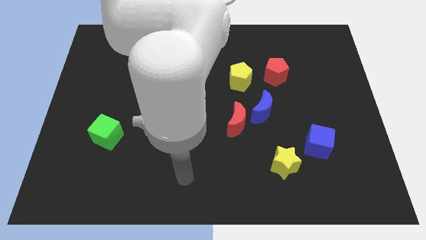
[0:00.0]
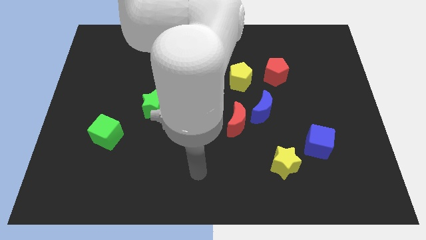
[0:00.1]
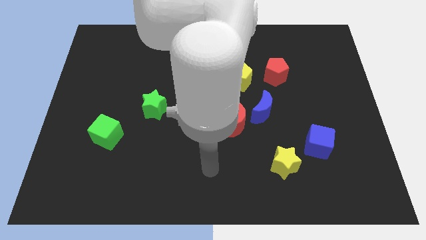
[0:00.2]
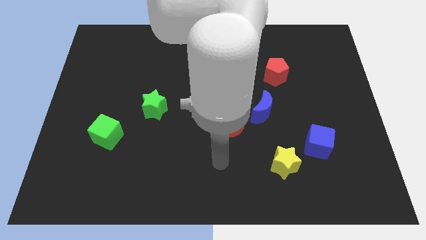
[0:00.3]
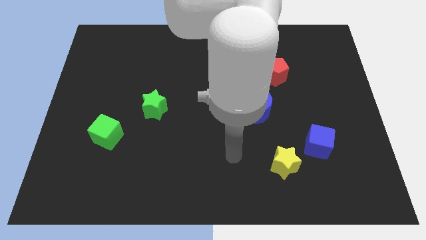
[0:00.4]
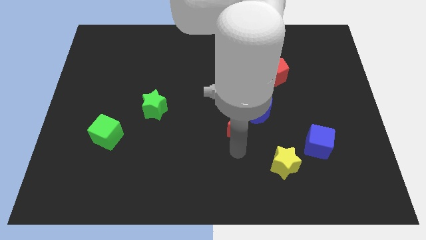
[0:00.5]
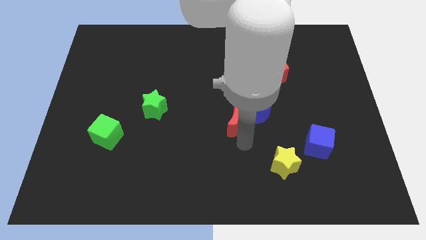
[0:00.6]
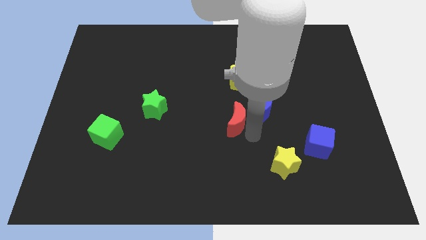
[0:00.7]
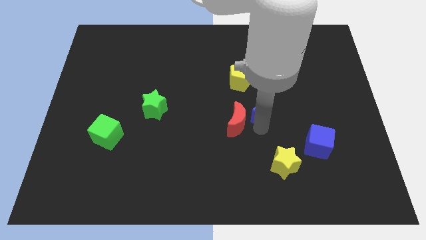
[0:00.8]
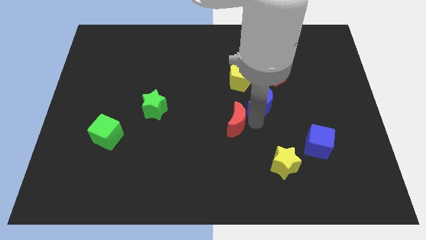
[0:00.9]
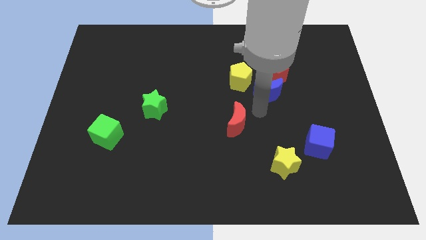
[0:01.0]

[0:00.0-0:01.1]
pull the red moon apart from the blue moon

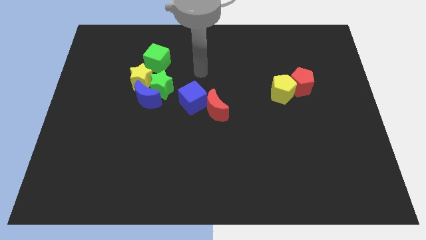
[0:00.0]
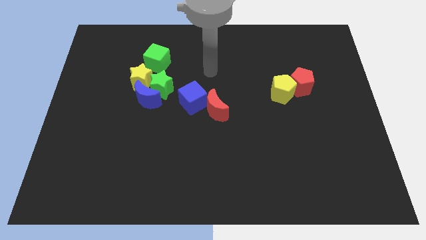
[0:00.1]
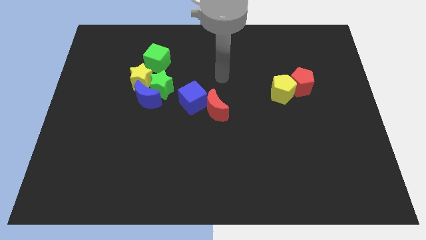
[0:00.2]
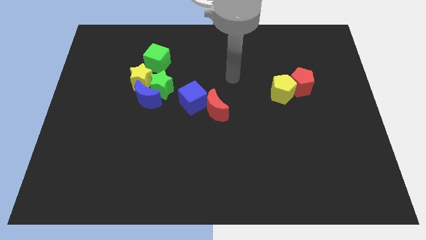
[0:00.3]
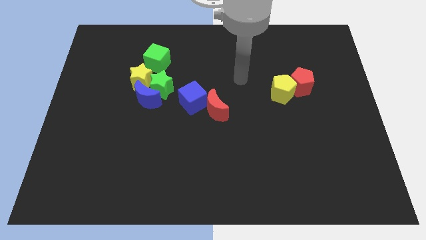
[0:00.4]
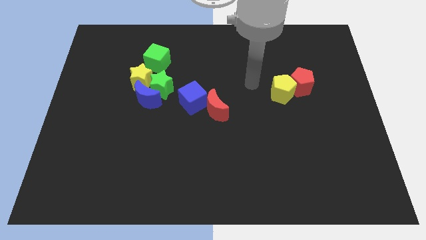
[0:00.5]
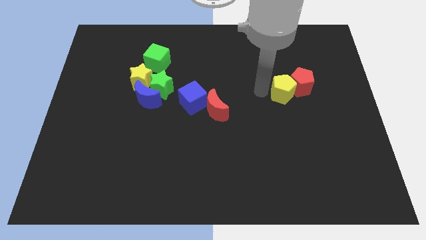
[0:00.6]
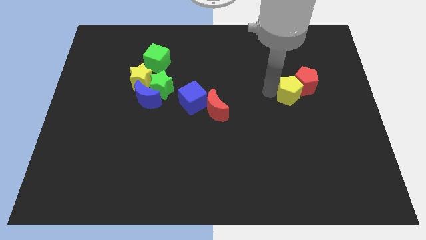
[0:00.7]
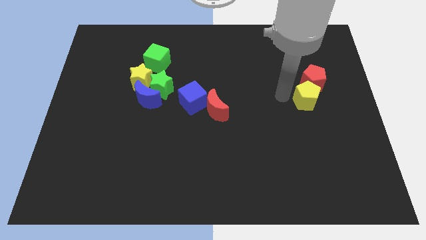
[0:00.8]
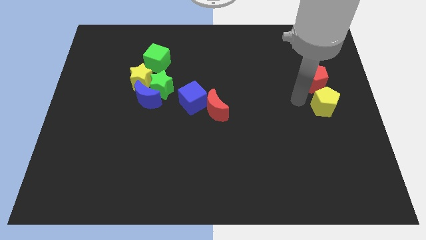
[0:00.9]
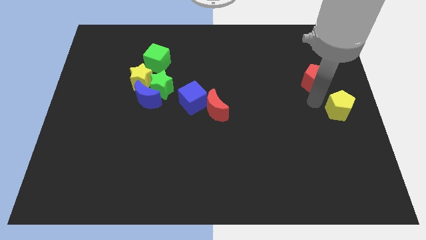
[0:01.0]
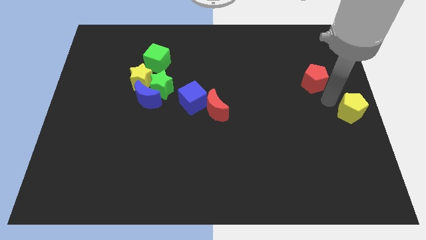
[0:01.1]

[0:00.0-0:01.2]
move the red pentagon away from the yellow pentagon

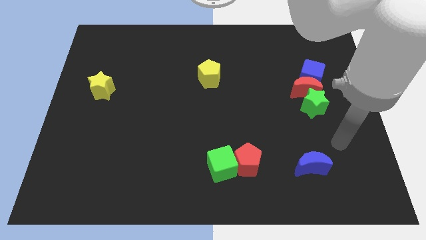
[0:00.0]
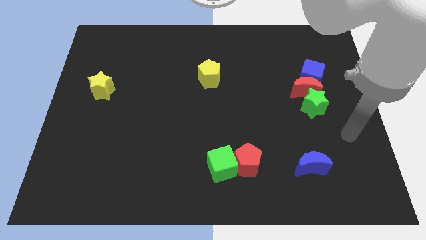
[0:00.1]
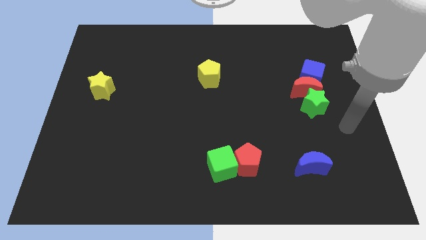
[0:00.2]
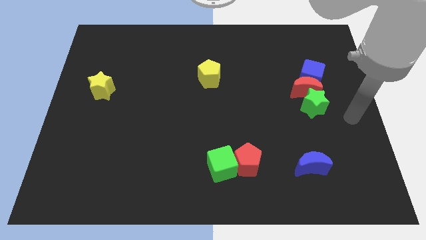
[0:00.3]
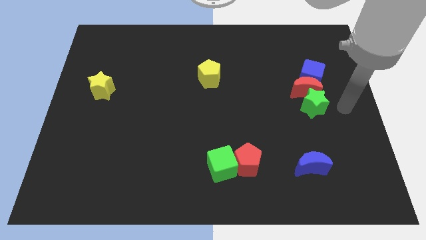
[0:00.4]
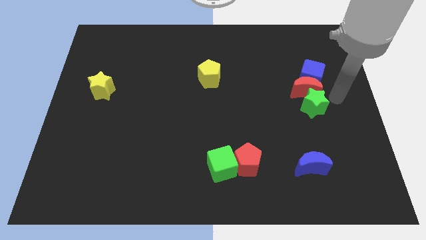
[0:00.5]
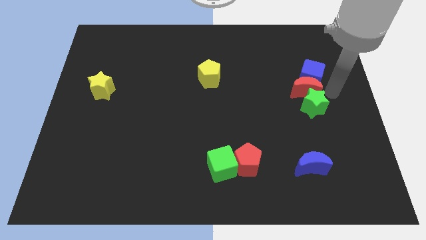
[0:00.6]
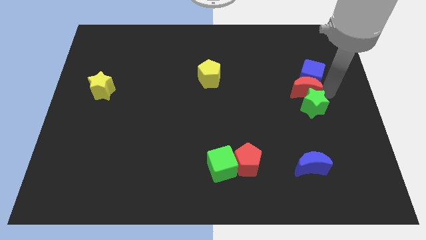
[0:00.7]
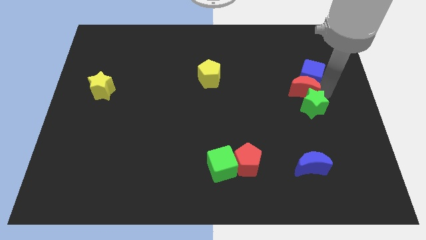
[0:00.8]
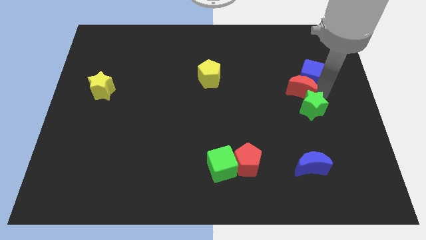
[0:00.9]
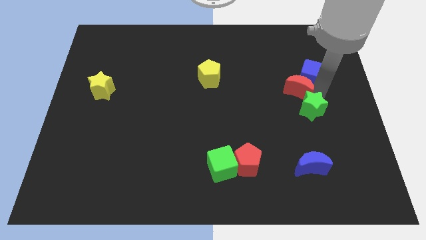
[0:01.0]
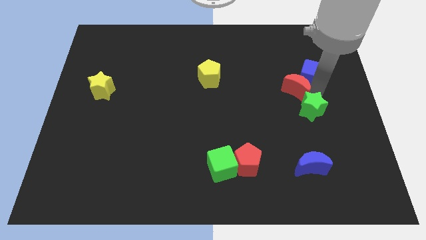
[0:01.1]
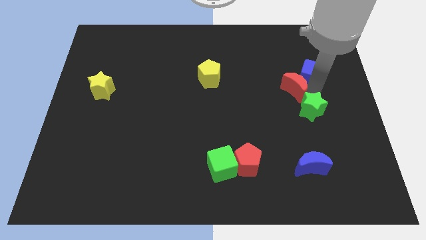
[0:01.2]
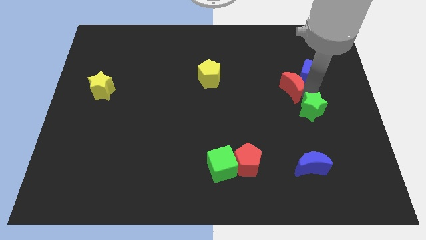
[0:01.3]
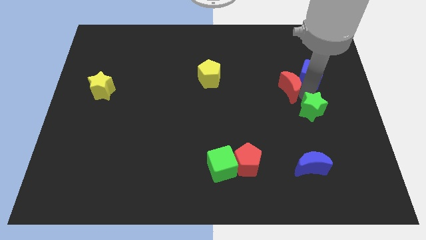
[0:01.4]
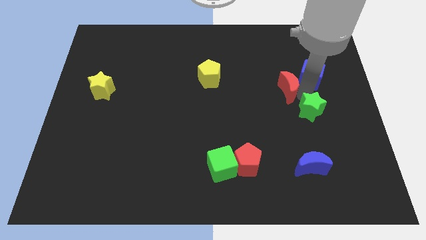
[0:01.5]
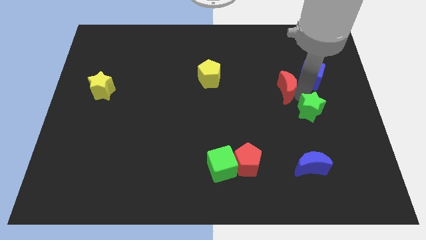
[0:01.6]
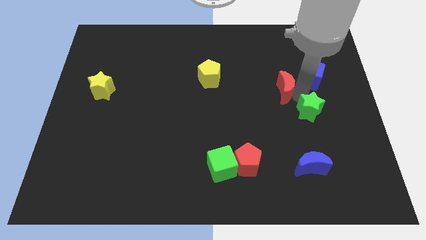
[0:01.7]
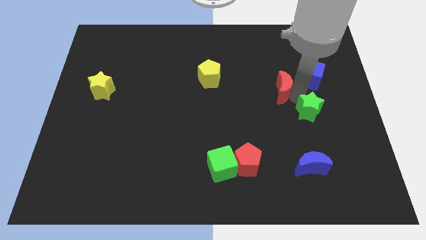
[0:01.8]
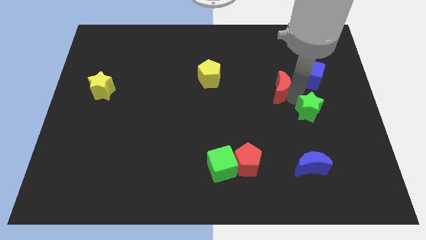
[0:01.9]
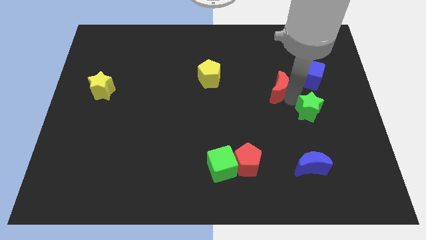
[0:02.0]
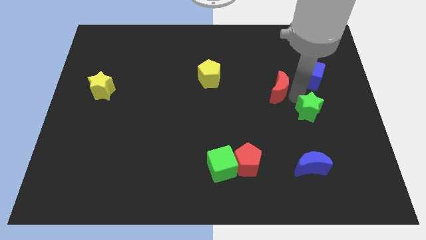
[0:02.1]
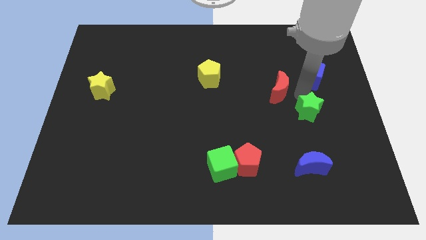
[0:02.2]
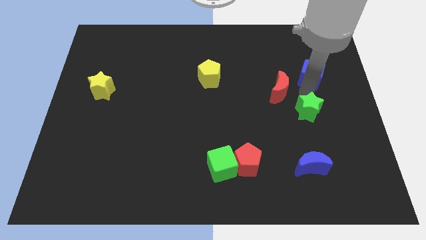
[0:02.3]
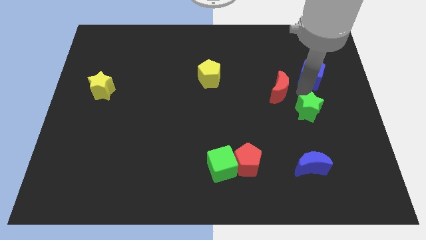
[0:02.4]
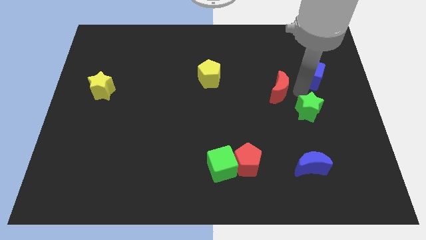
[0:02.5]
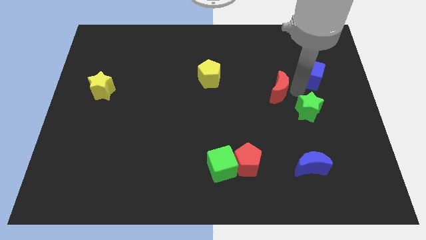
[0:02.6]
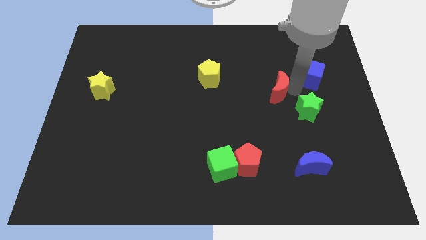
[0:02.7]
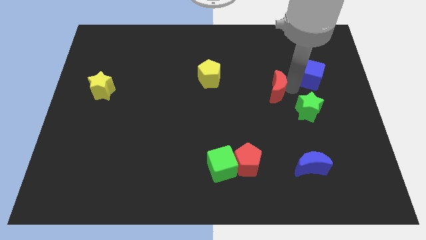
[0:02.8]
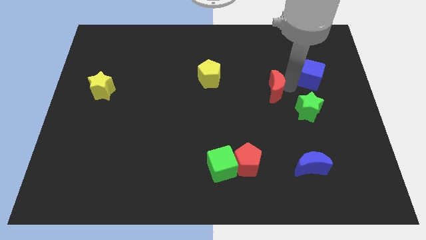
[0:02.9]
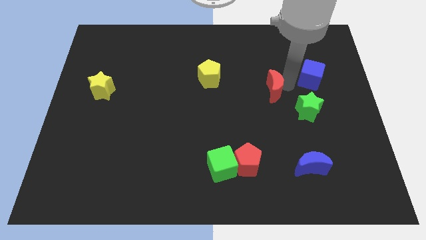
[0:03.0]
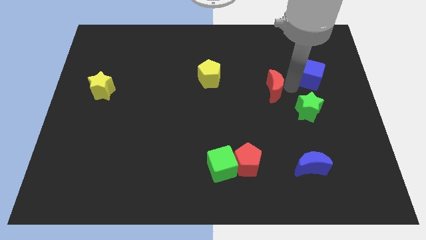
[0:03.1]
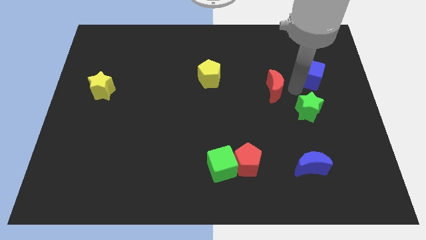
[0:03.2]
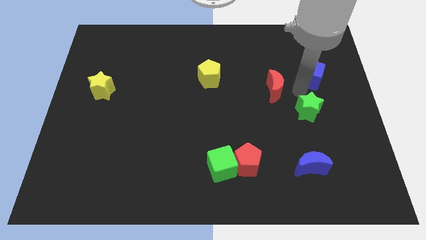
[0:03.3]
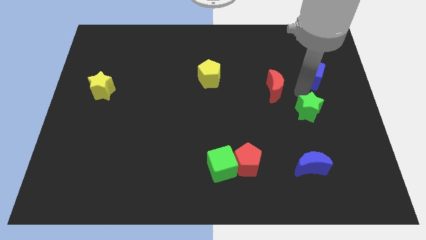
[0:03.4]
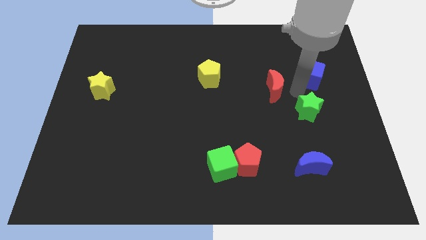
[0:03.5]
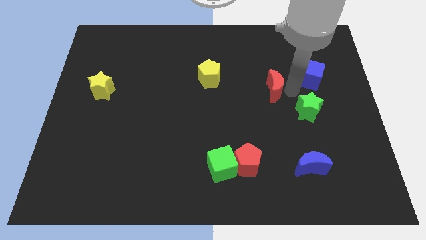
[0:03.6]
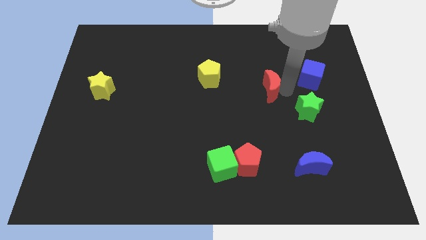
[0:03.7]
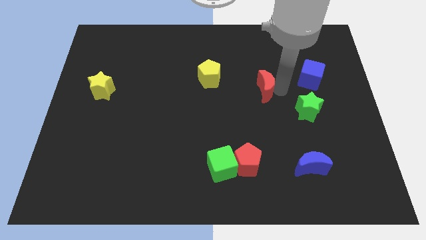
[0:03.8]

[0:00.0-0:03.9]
pull the red moon apart from the blue cube and green star

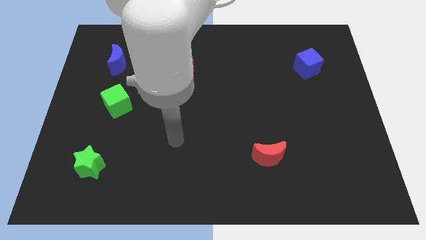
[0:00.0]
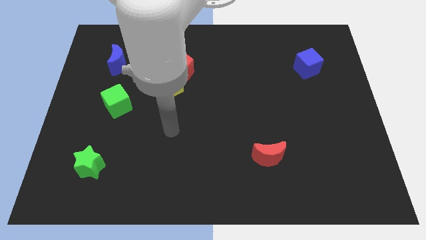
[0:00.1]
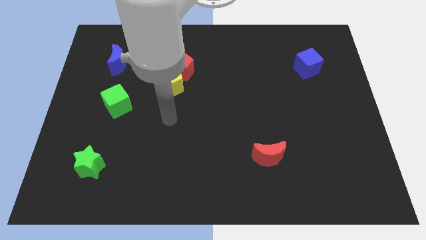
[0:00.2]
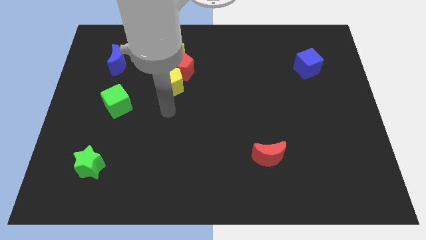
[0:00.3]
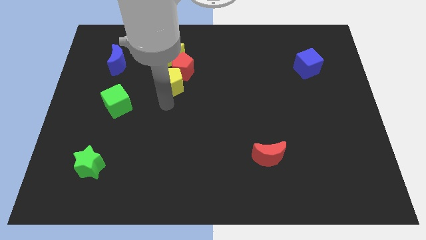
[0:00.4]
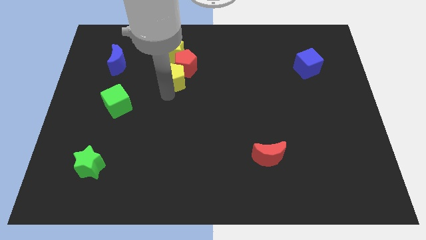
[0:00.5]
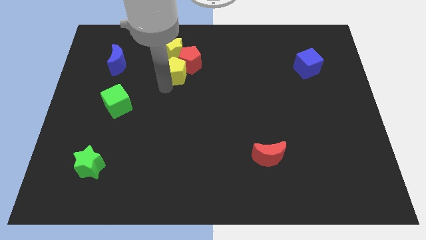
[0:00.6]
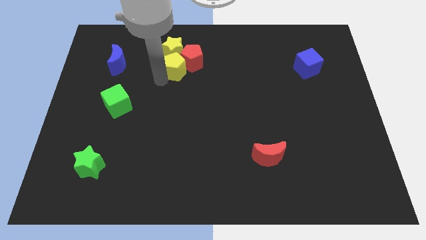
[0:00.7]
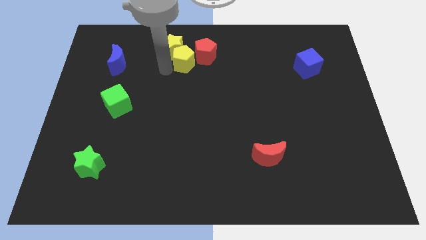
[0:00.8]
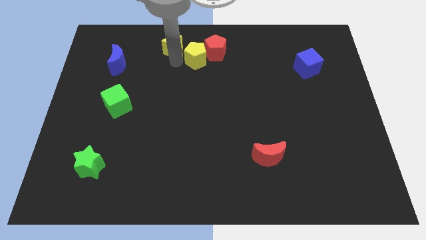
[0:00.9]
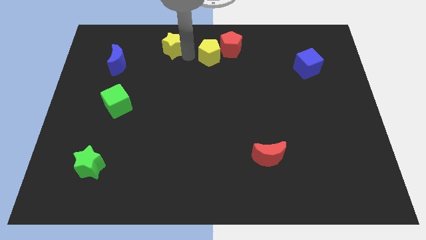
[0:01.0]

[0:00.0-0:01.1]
pull the red pentagon apart from the yellow pentagon and yellow star

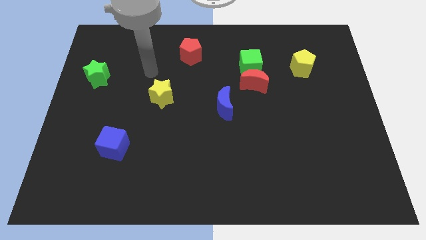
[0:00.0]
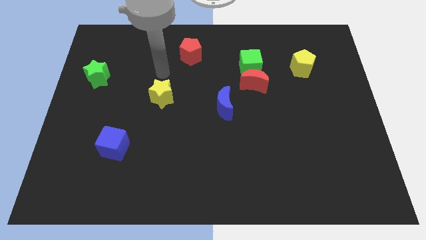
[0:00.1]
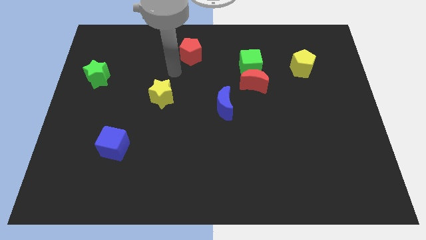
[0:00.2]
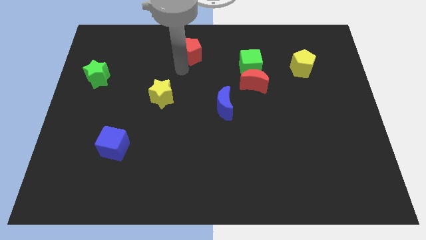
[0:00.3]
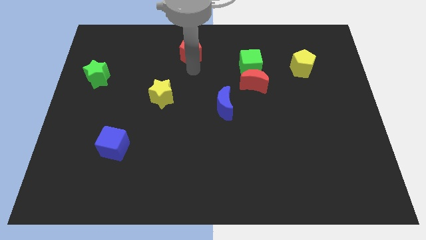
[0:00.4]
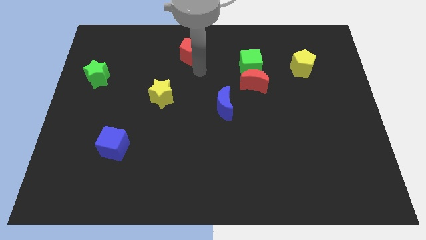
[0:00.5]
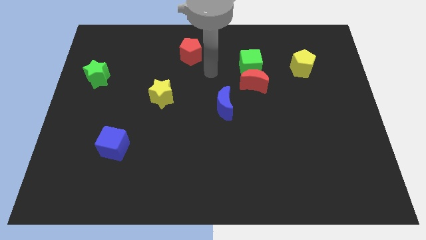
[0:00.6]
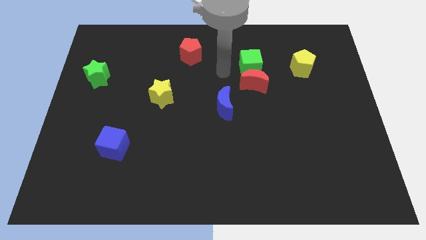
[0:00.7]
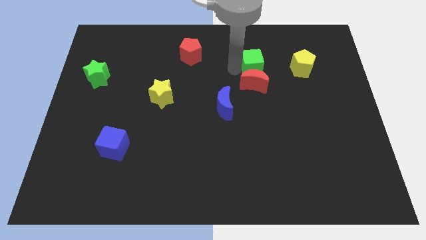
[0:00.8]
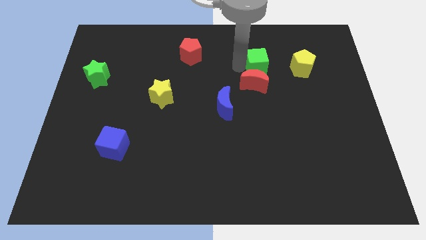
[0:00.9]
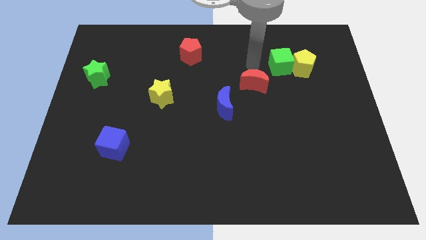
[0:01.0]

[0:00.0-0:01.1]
separate the red moon from the green cube

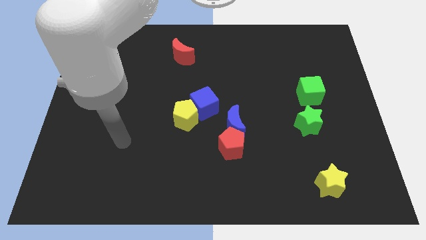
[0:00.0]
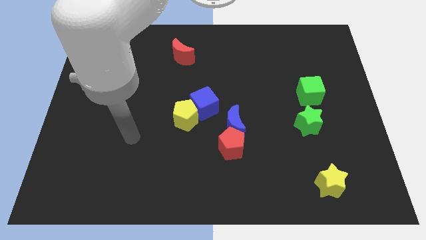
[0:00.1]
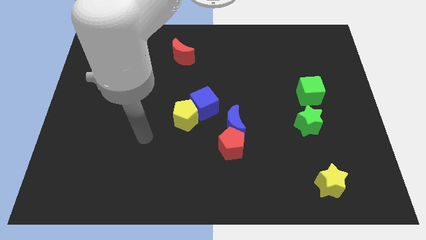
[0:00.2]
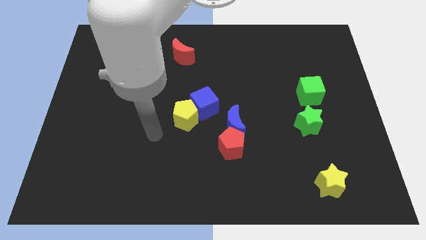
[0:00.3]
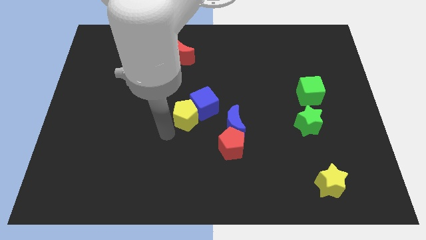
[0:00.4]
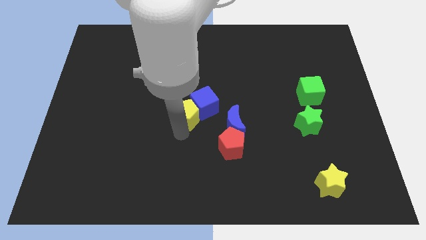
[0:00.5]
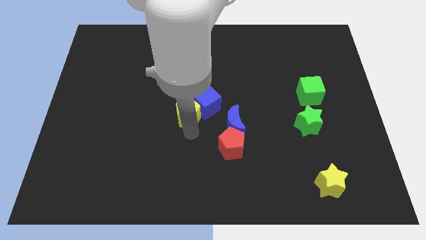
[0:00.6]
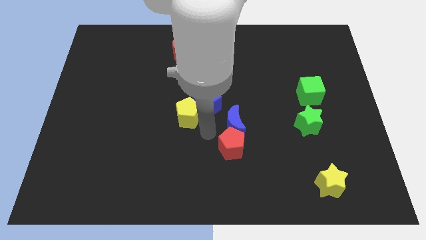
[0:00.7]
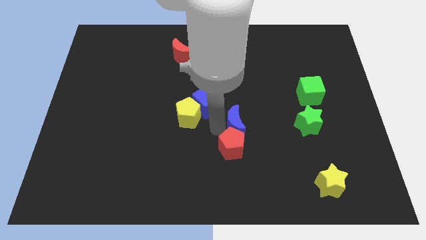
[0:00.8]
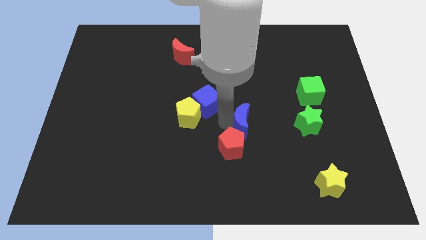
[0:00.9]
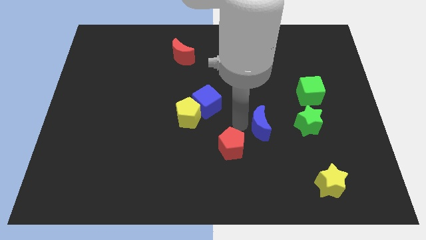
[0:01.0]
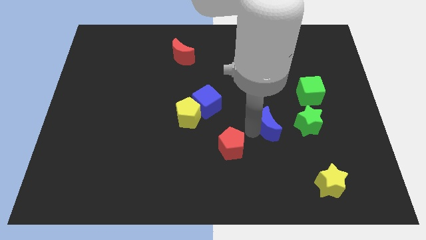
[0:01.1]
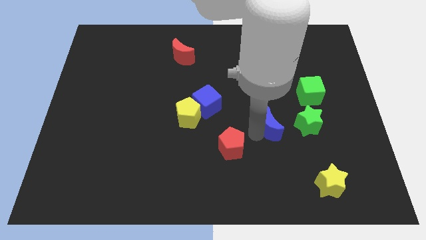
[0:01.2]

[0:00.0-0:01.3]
pull the red pentagon apart from the blue moon
